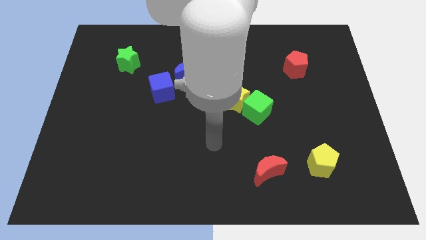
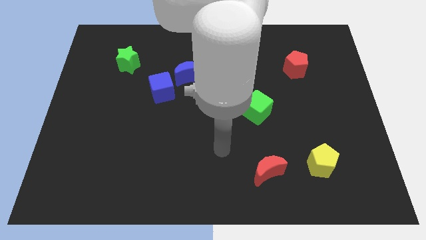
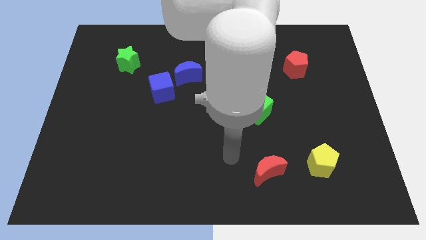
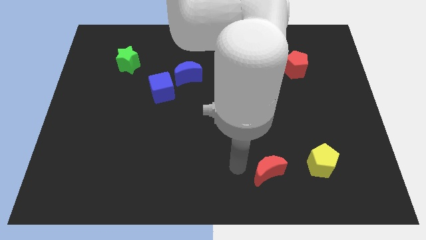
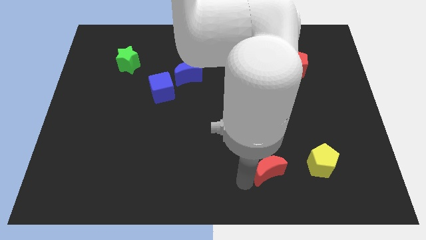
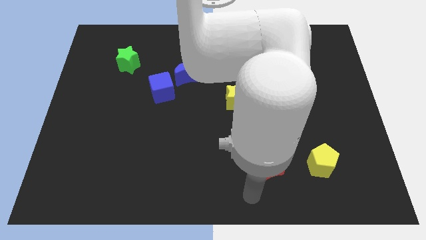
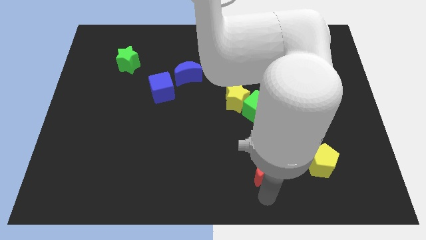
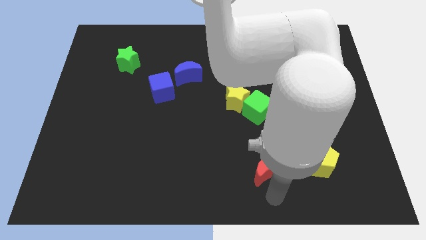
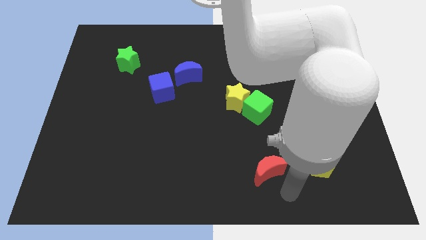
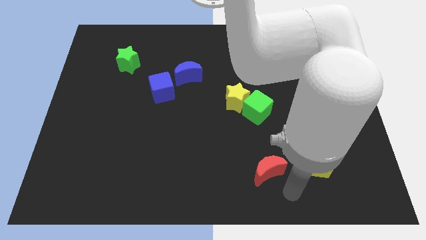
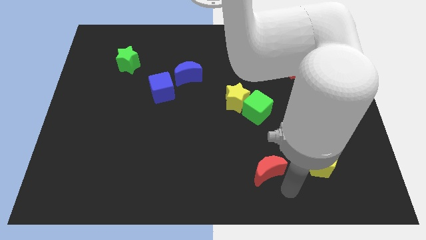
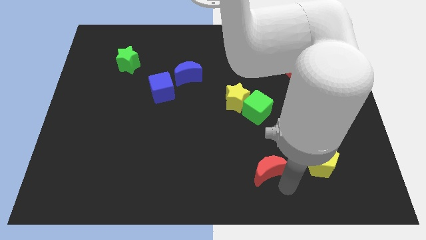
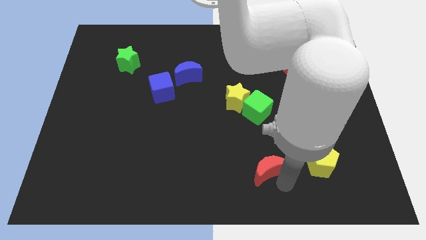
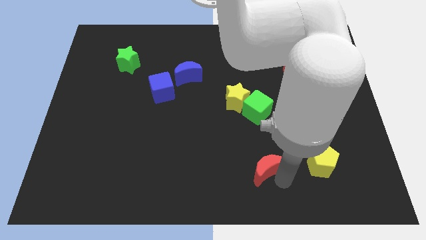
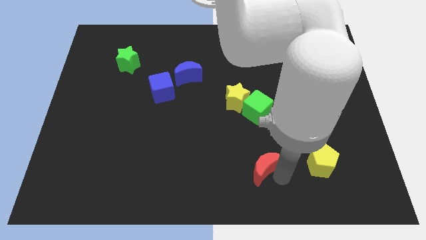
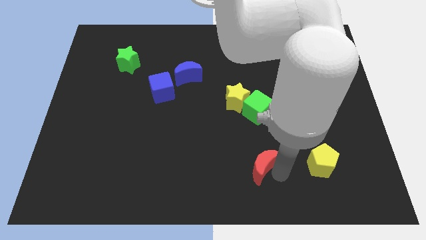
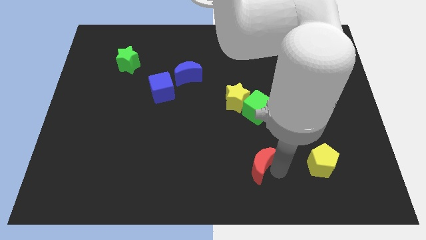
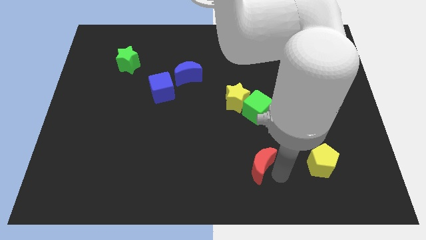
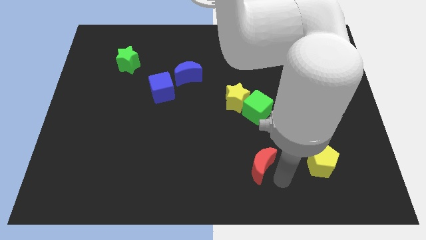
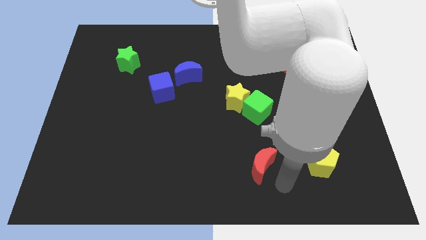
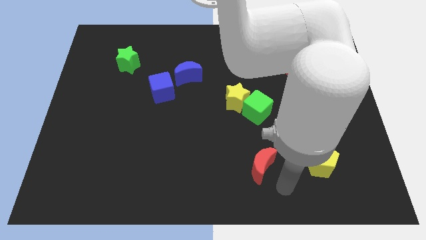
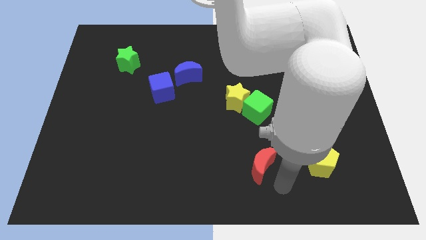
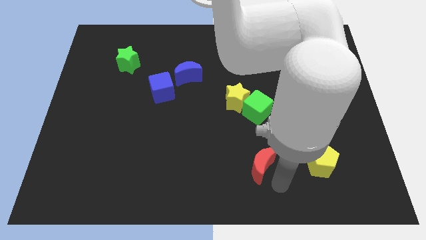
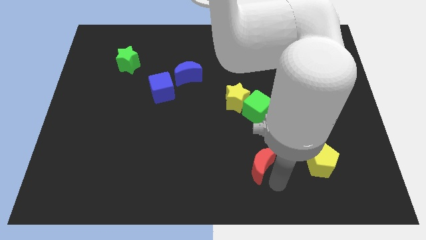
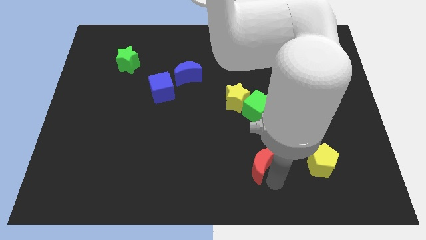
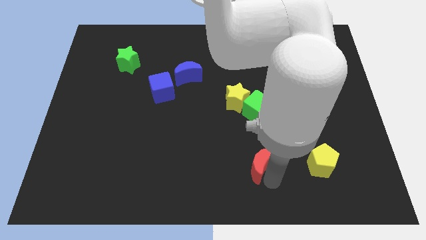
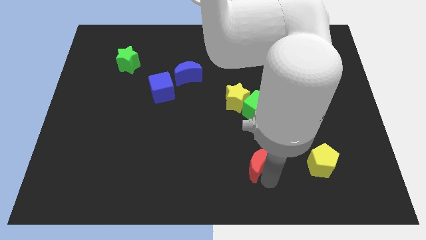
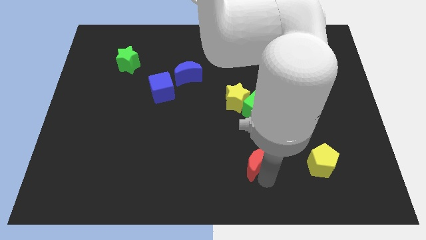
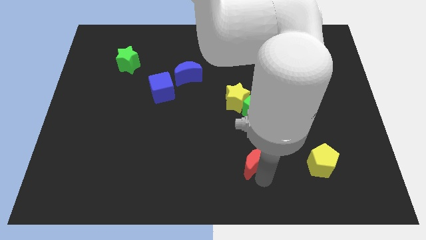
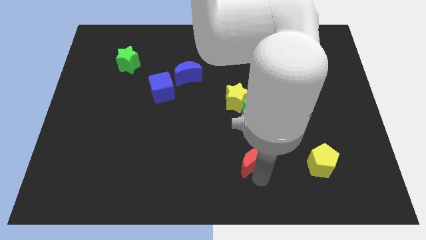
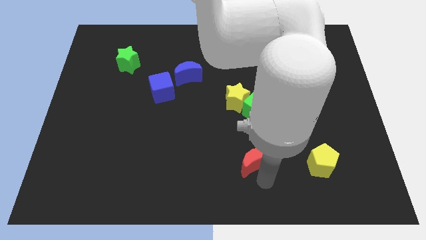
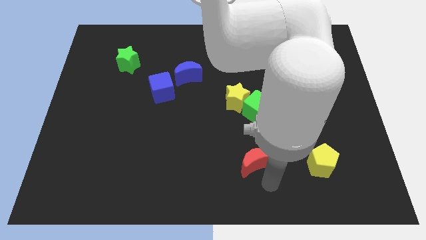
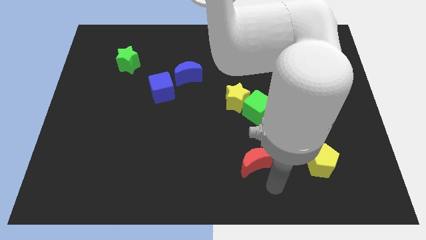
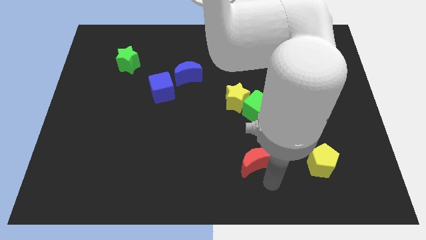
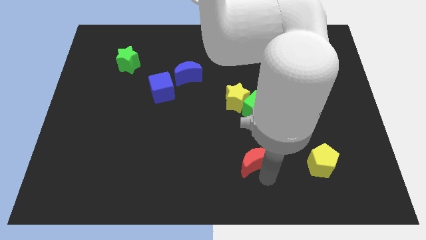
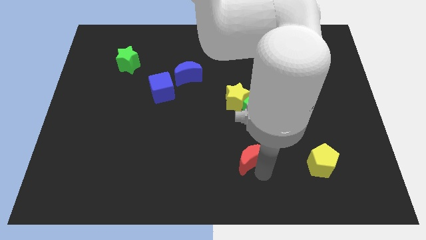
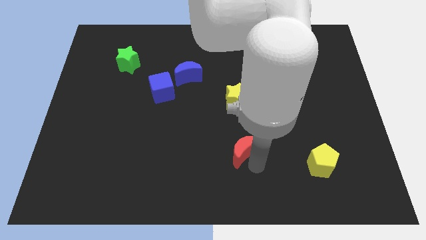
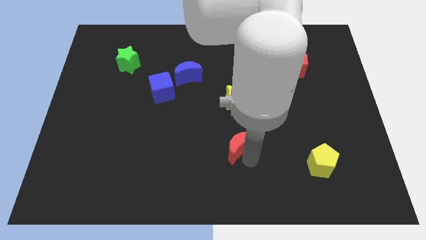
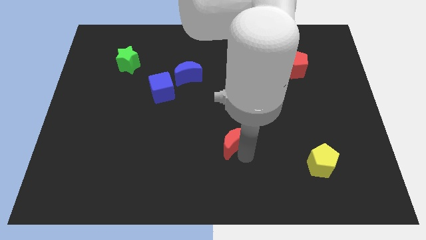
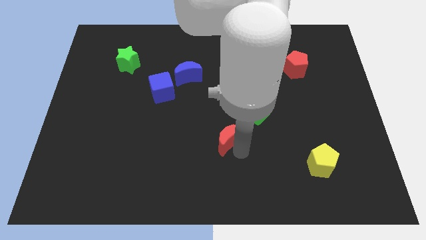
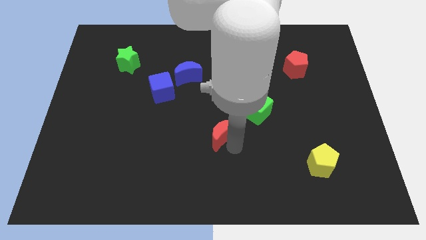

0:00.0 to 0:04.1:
slide the red moon diagonally down and to the left of the yellow star

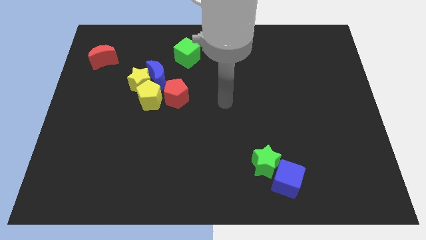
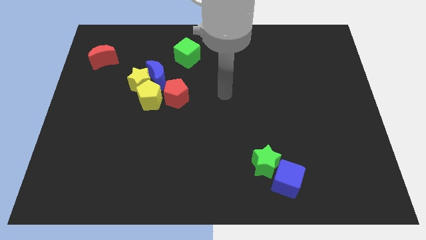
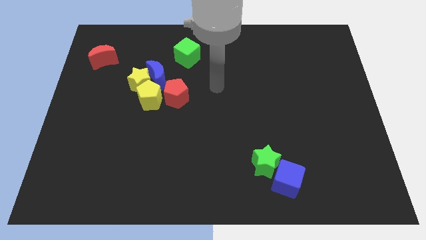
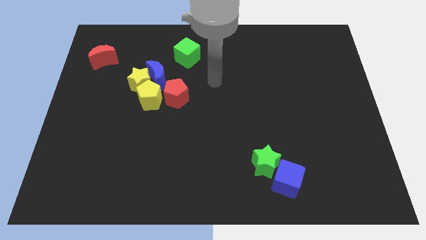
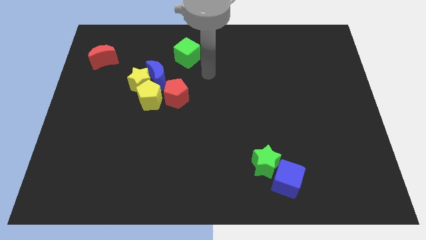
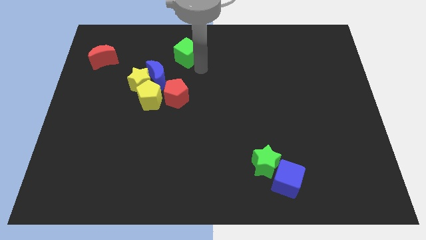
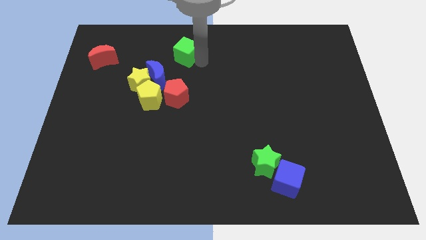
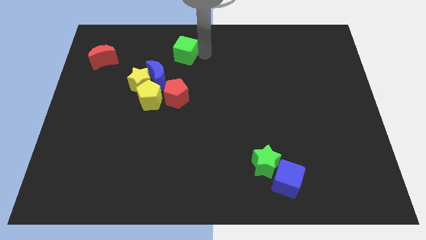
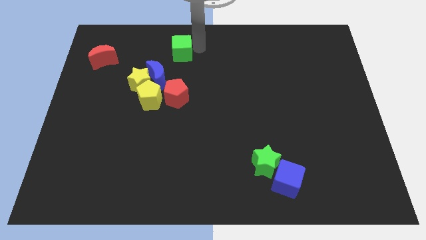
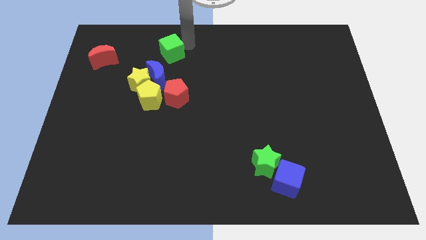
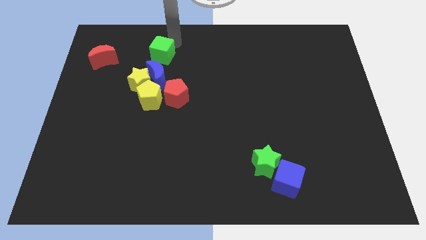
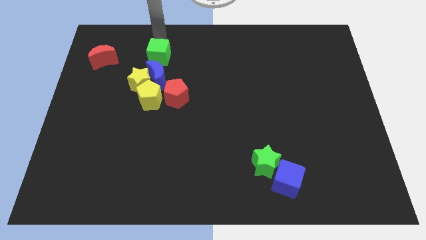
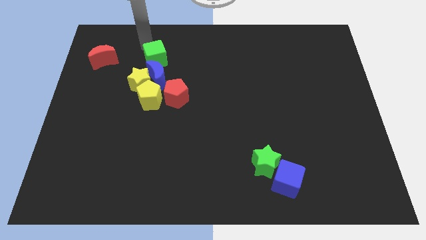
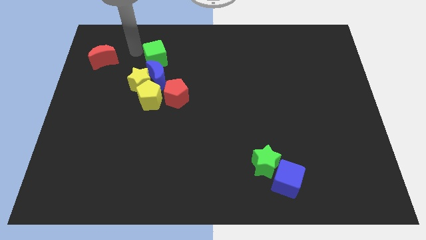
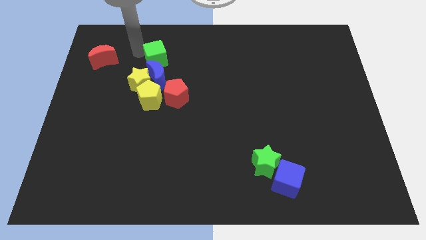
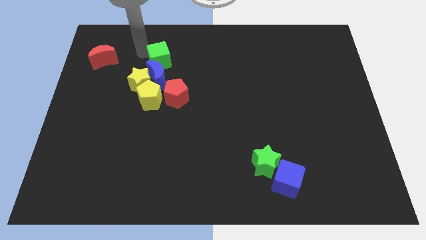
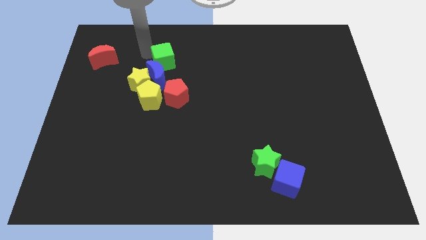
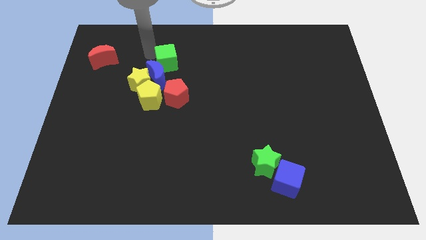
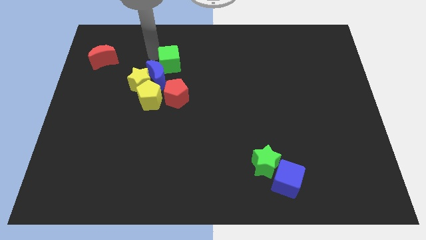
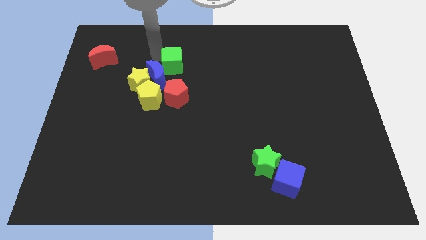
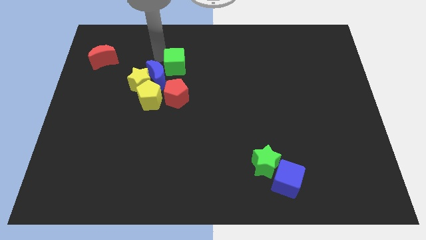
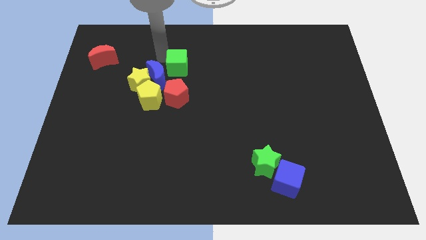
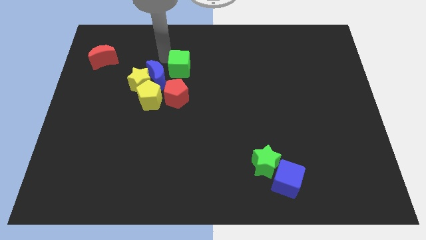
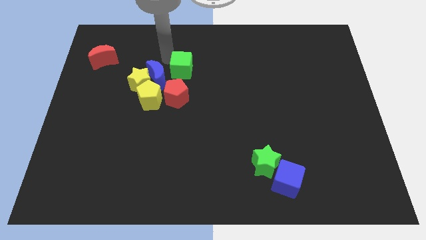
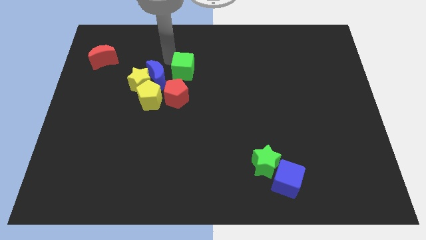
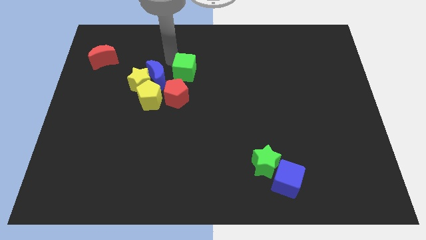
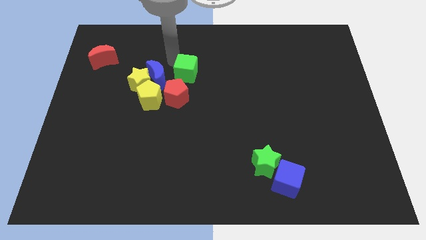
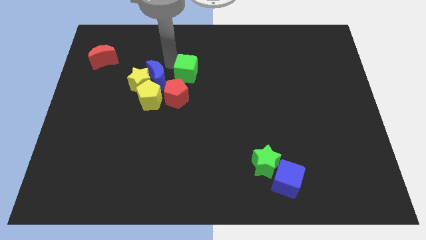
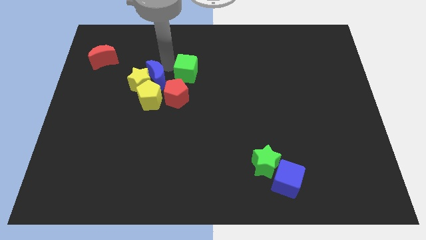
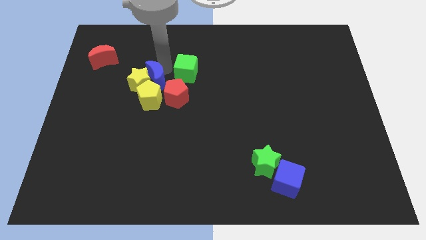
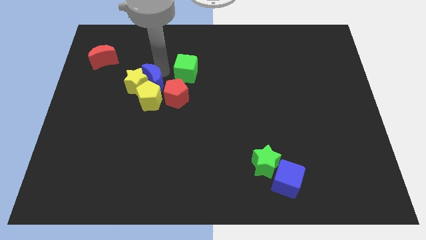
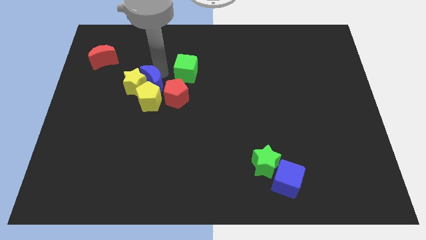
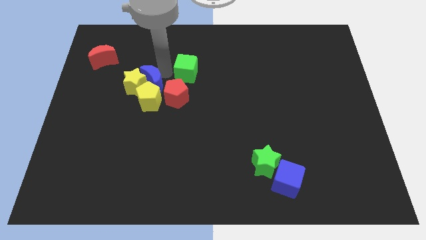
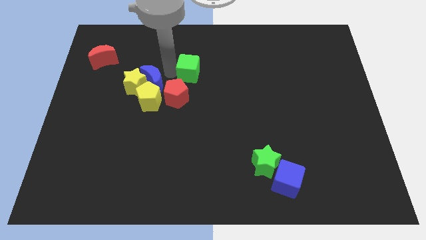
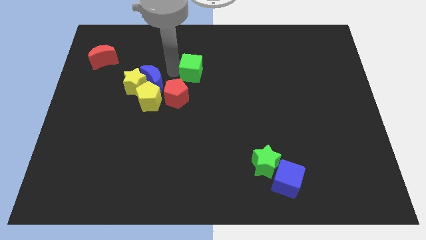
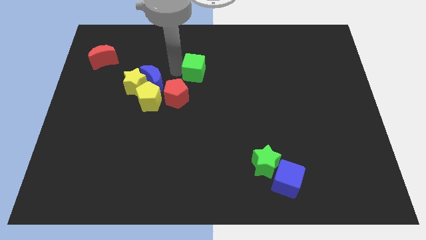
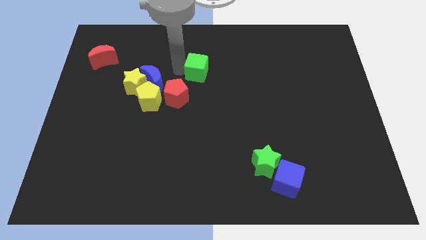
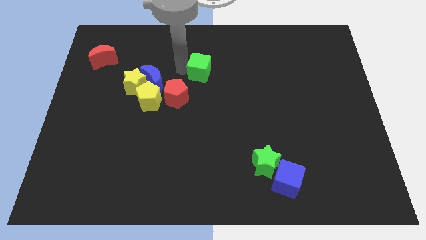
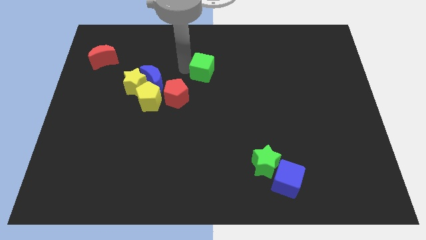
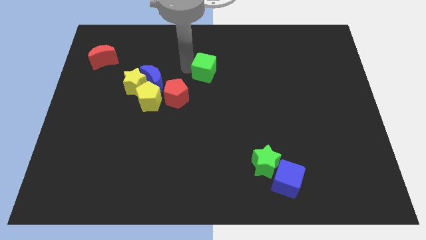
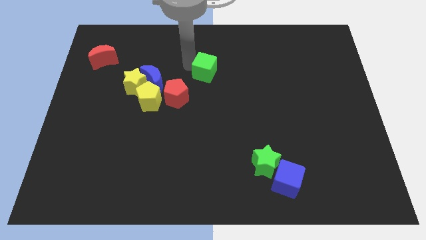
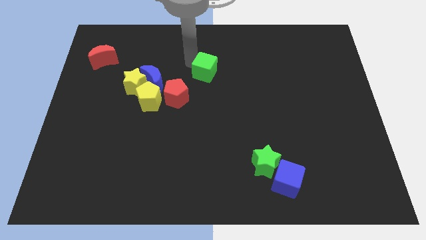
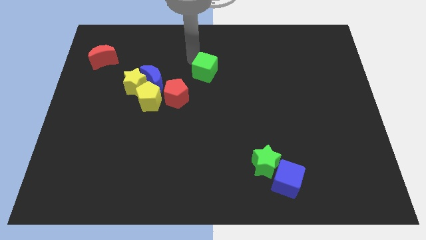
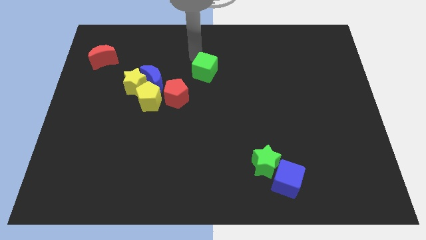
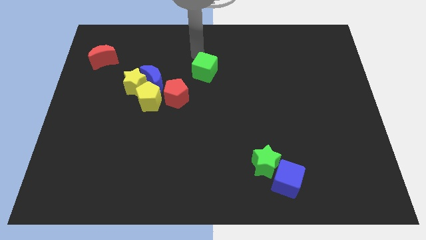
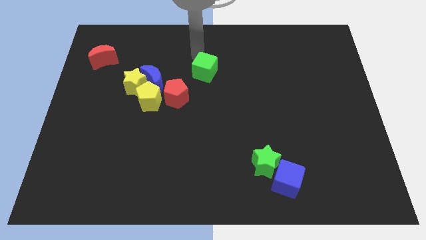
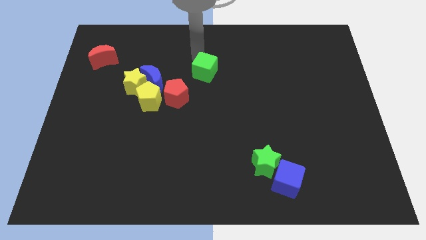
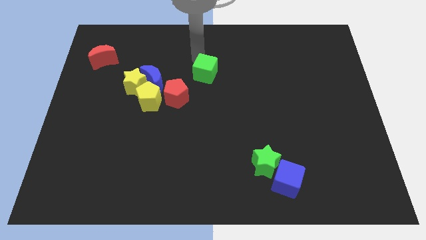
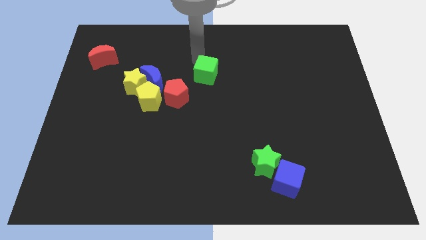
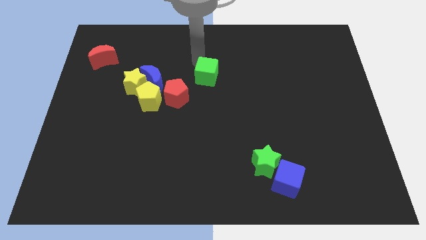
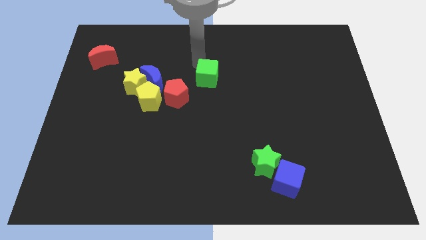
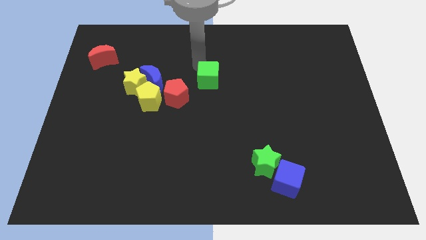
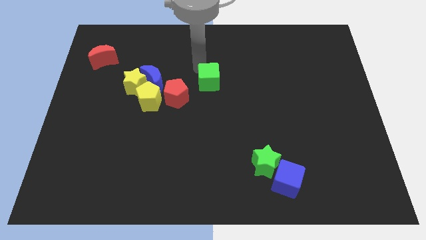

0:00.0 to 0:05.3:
move the green cube to the right of the red pentagon
